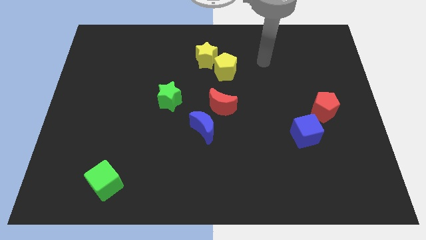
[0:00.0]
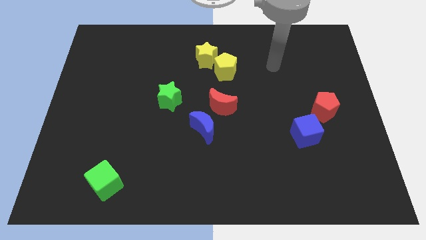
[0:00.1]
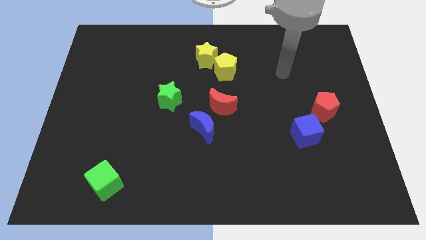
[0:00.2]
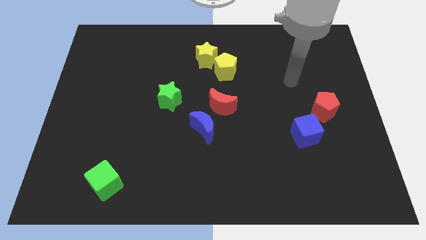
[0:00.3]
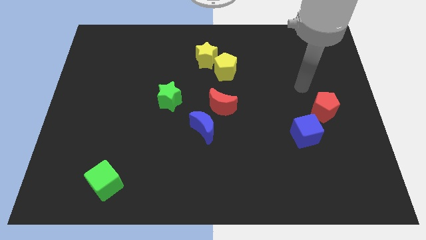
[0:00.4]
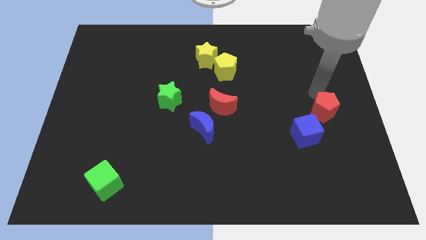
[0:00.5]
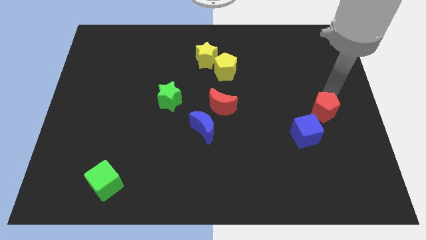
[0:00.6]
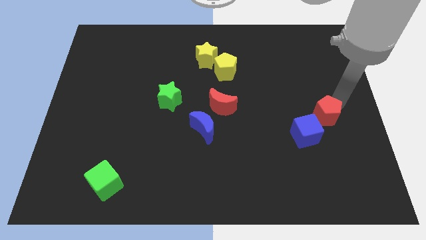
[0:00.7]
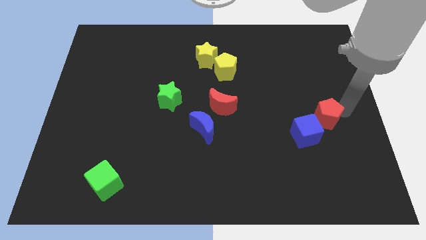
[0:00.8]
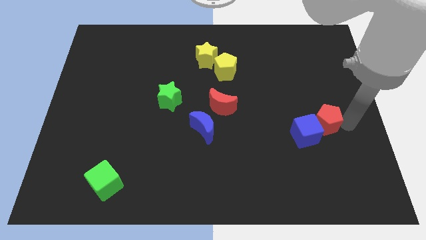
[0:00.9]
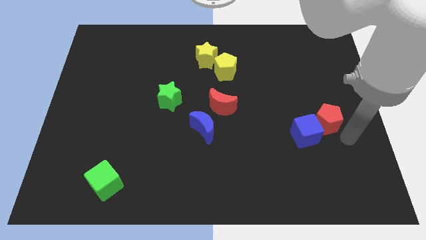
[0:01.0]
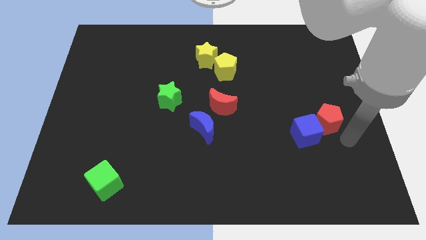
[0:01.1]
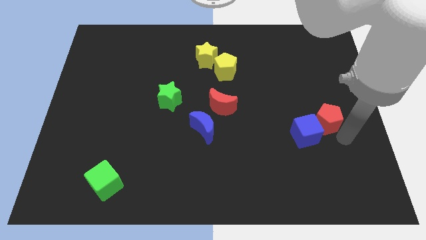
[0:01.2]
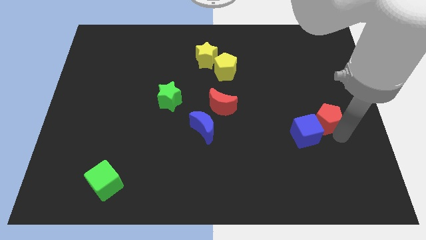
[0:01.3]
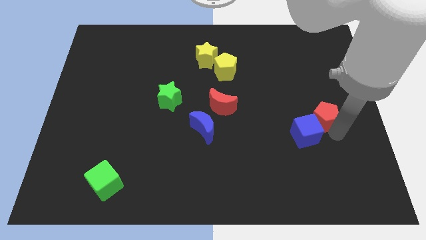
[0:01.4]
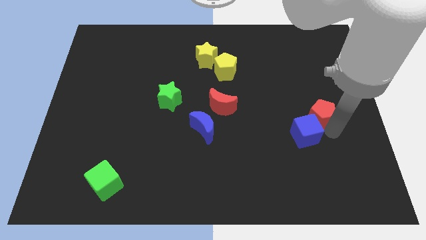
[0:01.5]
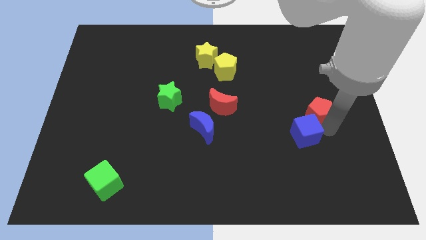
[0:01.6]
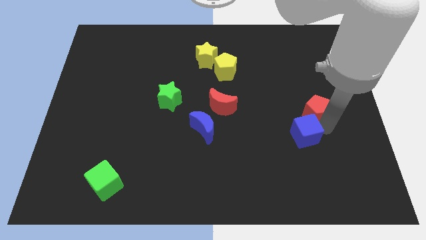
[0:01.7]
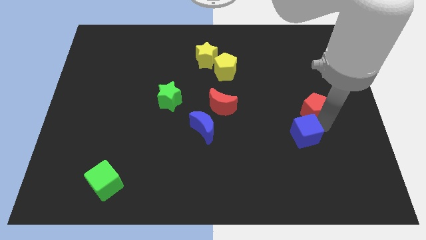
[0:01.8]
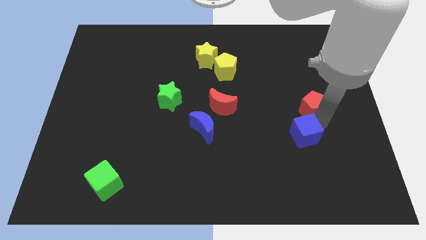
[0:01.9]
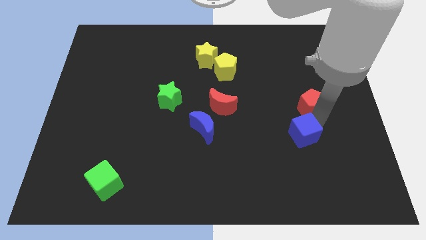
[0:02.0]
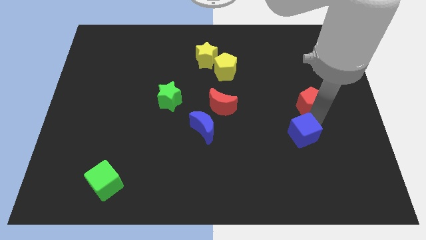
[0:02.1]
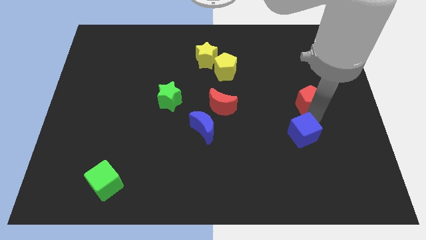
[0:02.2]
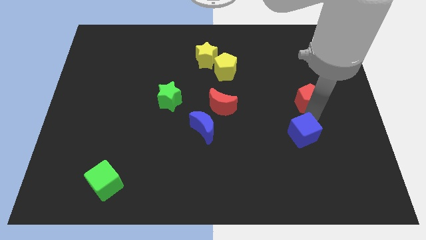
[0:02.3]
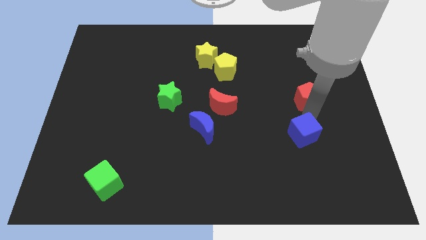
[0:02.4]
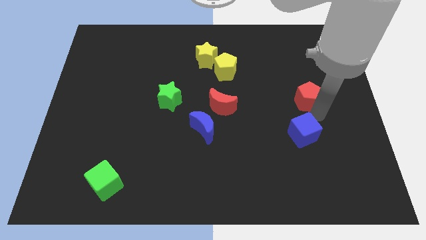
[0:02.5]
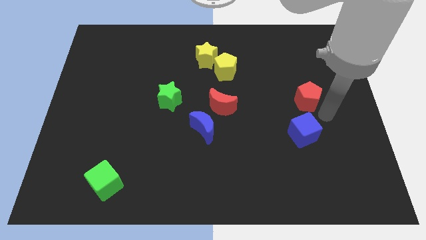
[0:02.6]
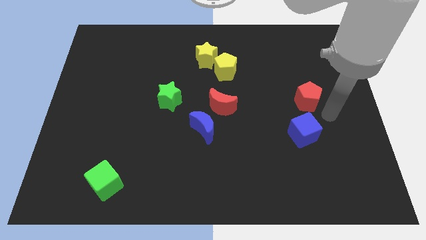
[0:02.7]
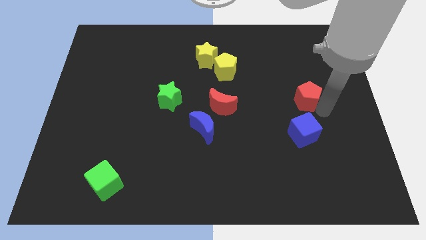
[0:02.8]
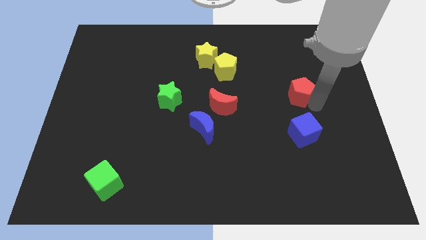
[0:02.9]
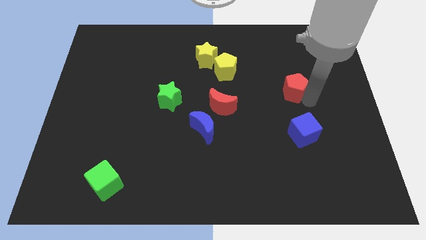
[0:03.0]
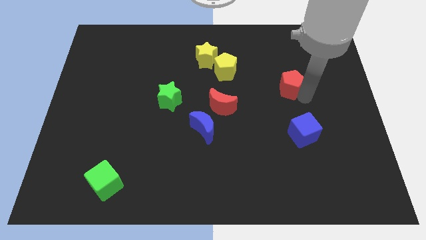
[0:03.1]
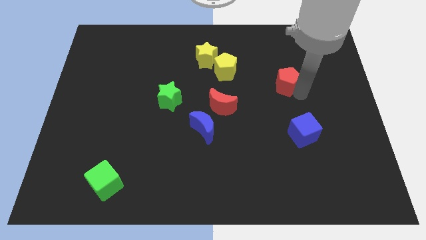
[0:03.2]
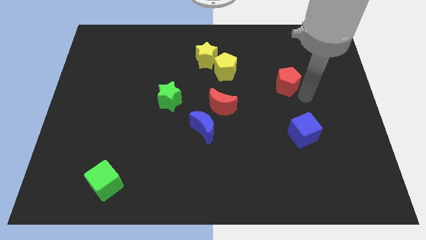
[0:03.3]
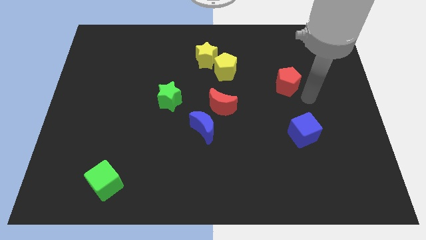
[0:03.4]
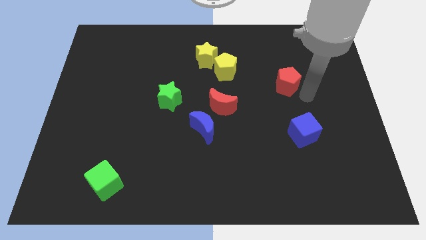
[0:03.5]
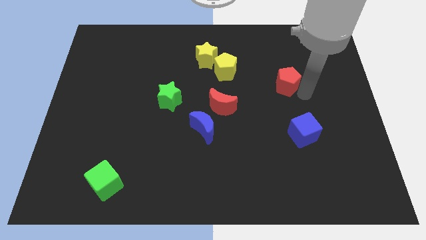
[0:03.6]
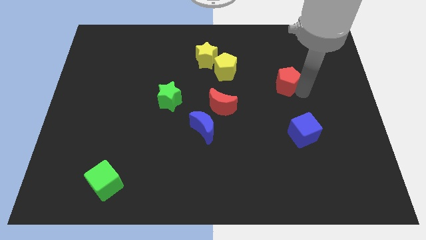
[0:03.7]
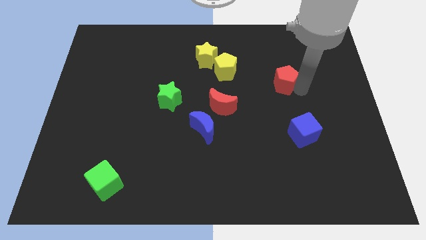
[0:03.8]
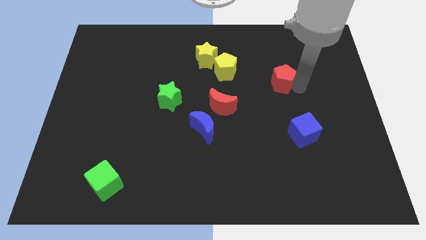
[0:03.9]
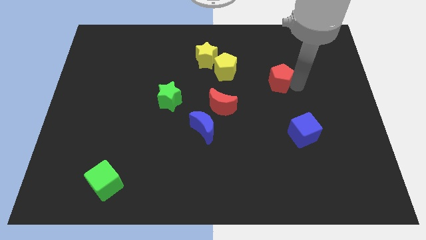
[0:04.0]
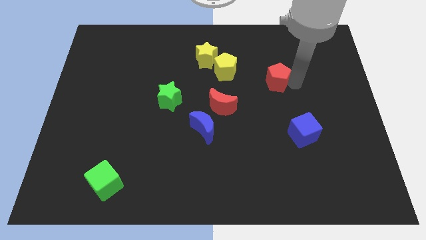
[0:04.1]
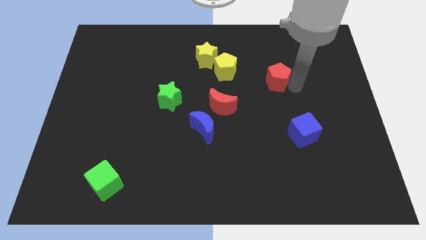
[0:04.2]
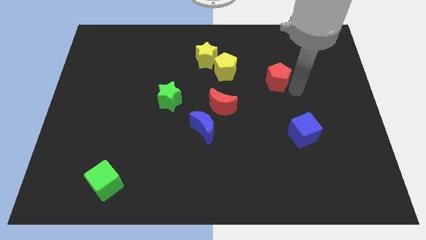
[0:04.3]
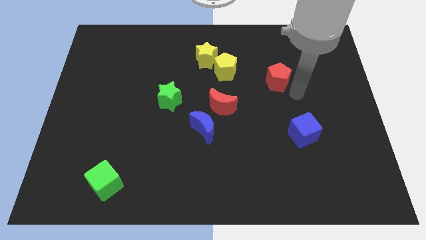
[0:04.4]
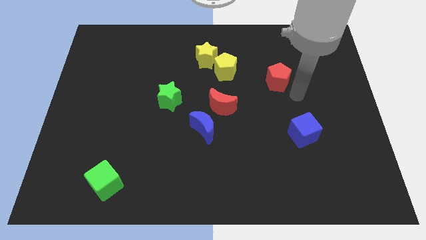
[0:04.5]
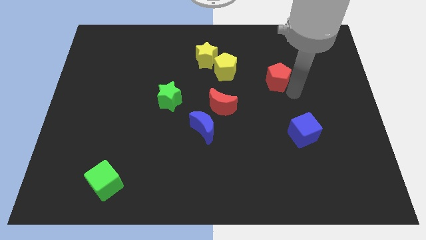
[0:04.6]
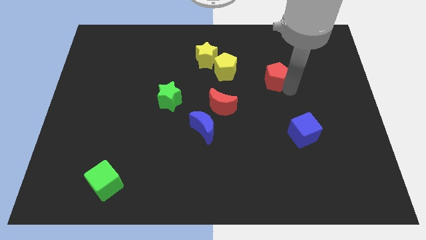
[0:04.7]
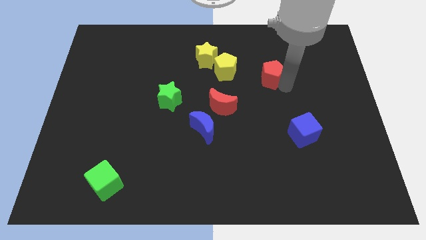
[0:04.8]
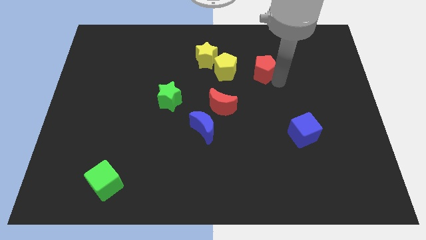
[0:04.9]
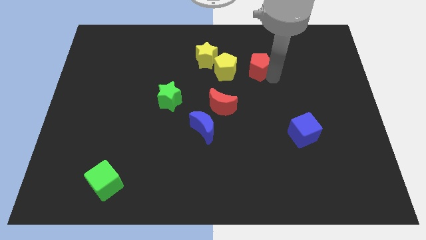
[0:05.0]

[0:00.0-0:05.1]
put the red pentagon to the right side of the yellow star

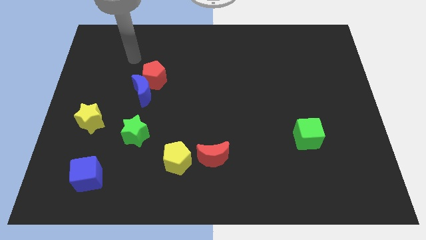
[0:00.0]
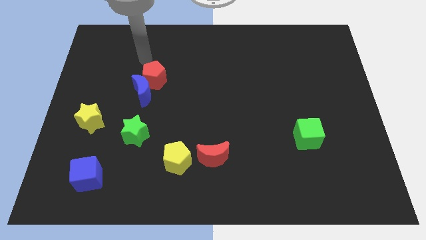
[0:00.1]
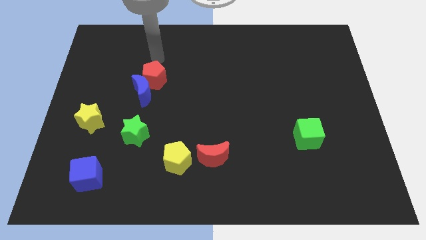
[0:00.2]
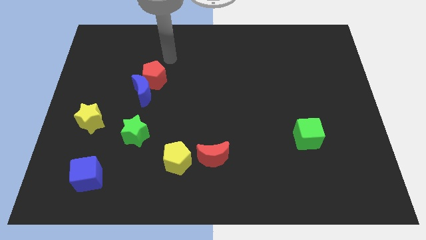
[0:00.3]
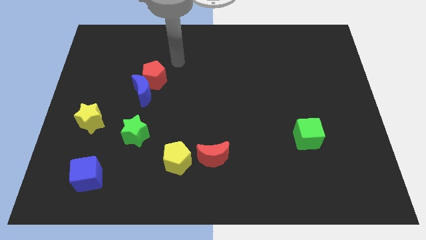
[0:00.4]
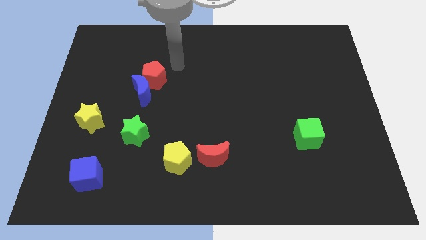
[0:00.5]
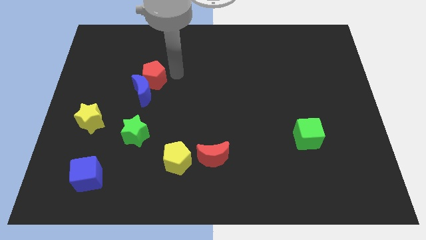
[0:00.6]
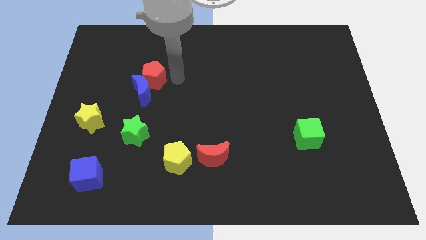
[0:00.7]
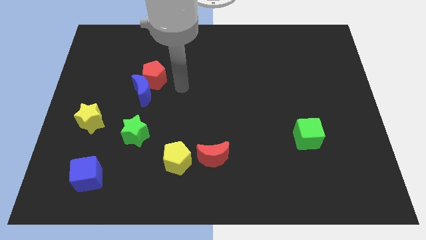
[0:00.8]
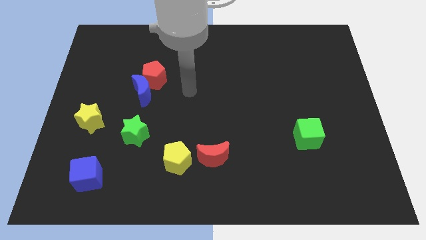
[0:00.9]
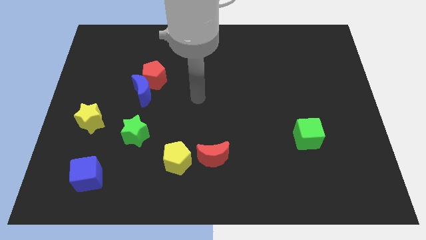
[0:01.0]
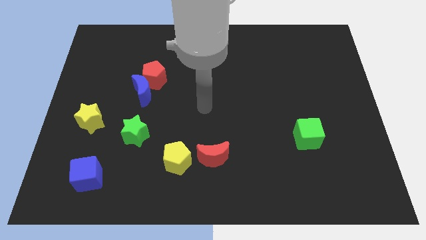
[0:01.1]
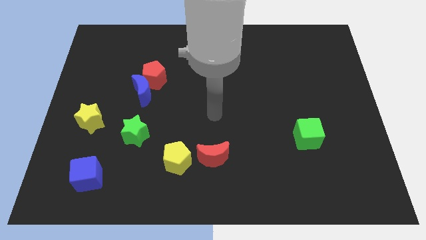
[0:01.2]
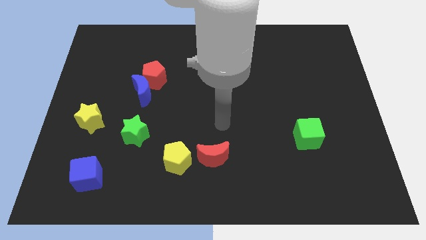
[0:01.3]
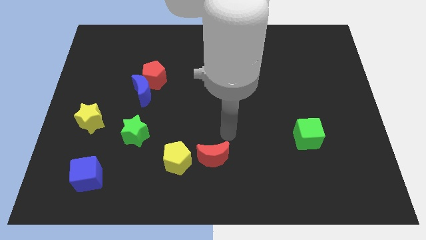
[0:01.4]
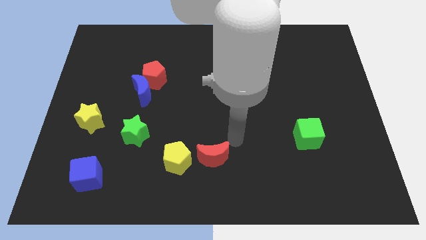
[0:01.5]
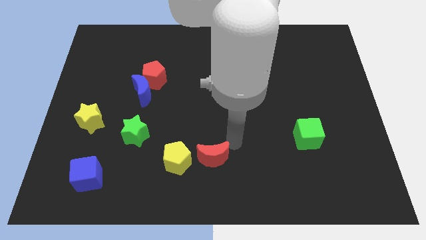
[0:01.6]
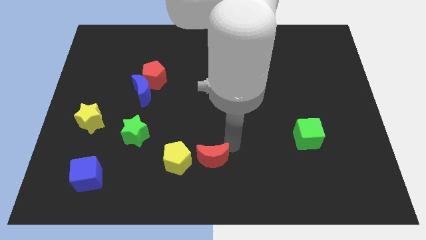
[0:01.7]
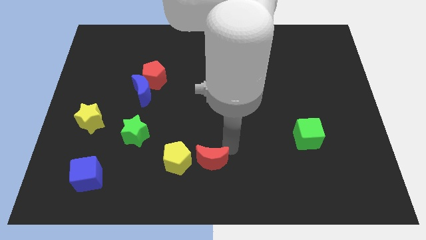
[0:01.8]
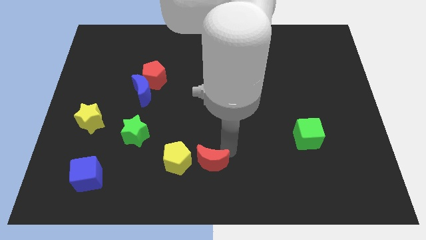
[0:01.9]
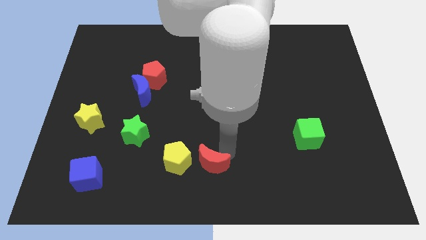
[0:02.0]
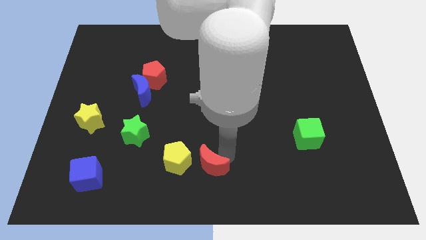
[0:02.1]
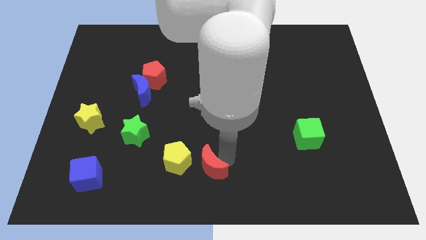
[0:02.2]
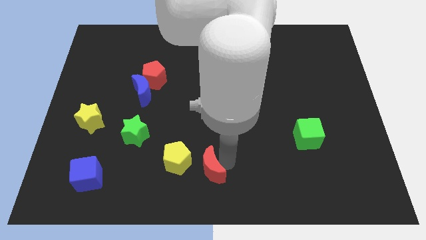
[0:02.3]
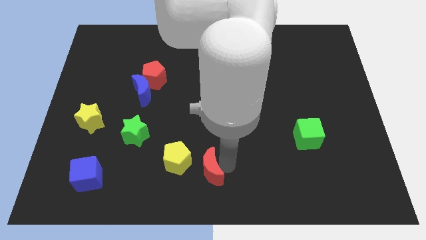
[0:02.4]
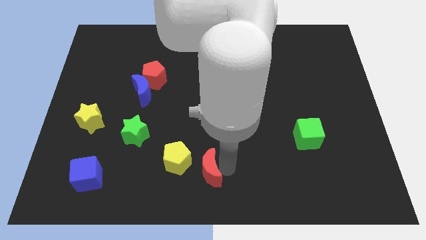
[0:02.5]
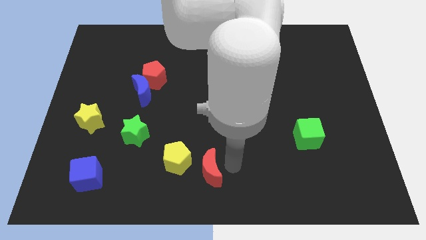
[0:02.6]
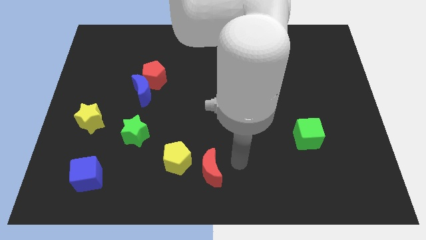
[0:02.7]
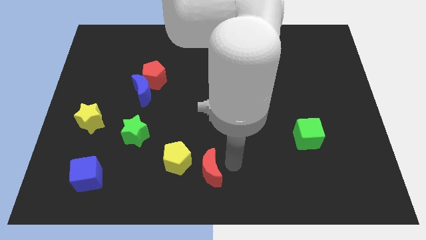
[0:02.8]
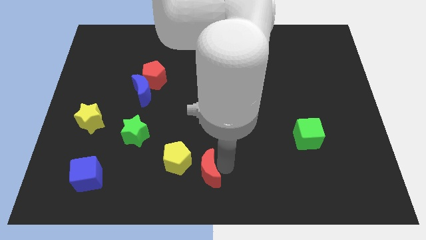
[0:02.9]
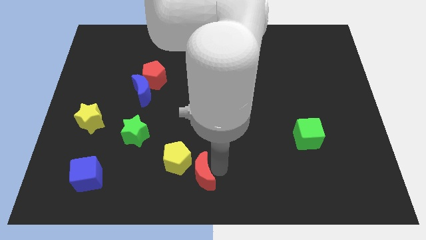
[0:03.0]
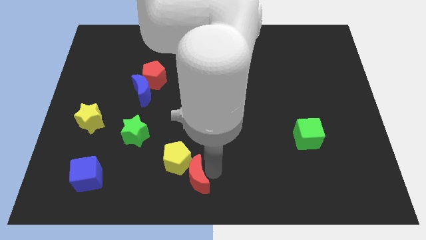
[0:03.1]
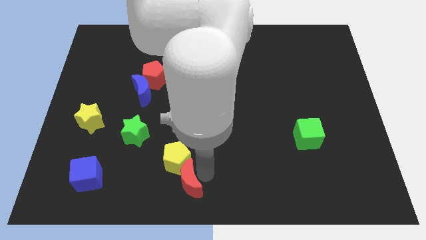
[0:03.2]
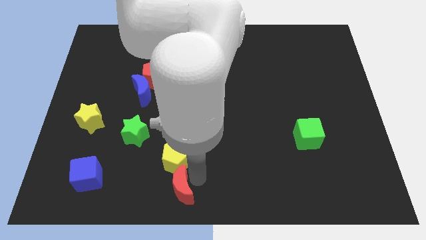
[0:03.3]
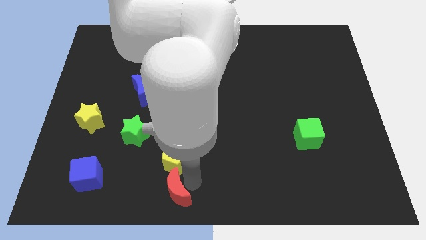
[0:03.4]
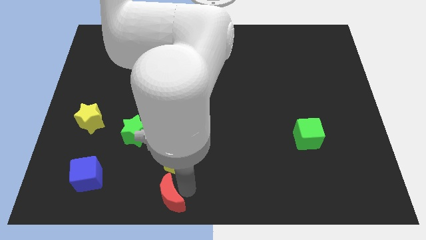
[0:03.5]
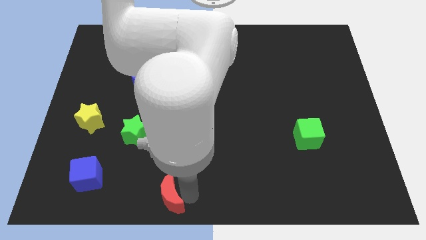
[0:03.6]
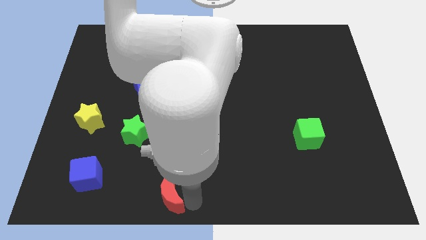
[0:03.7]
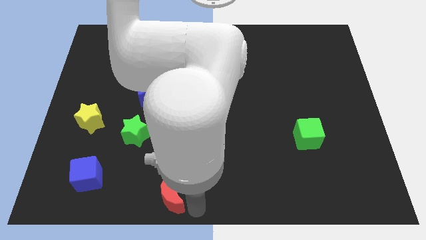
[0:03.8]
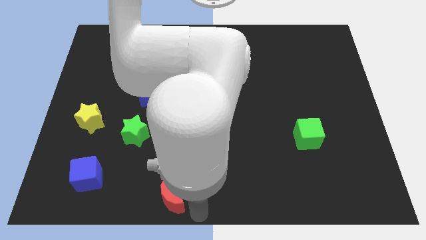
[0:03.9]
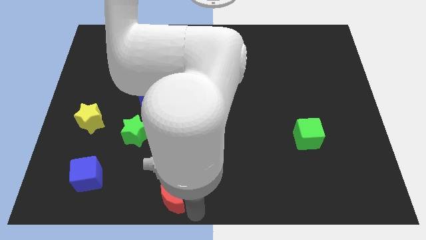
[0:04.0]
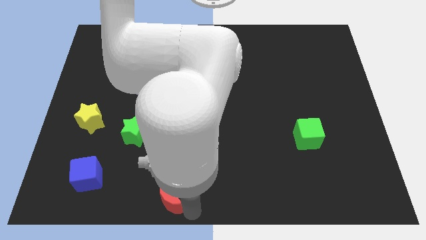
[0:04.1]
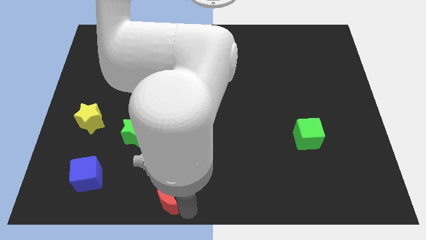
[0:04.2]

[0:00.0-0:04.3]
push the red moon diagonally down and to the left of the yellow pentagon
